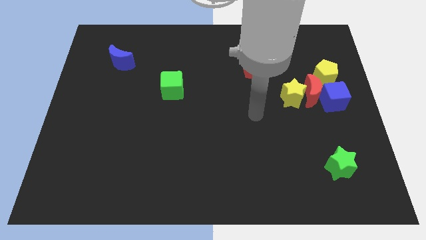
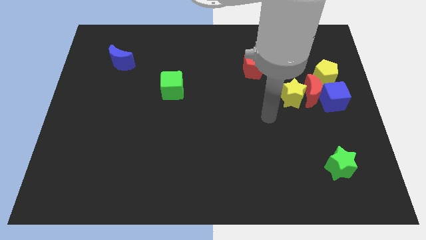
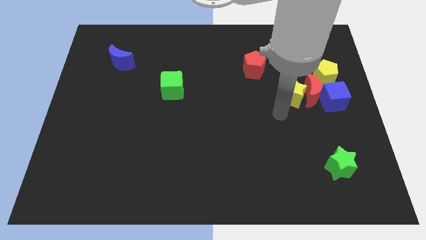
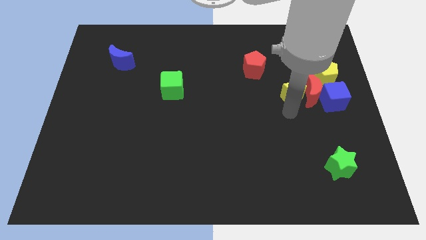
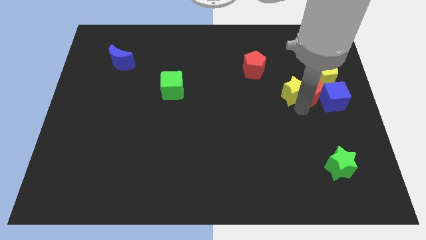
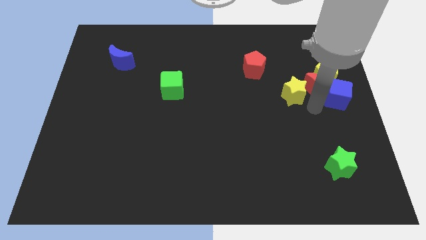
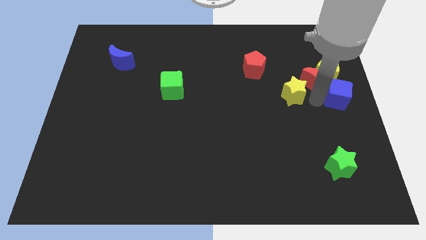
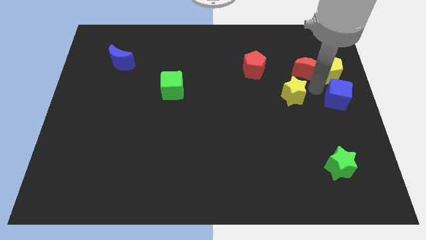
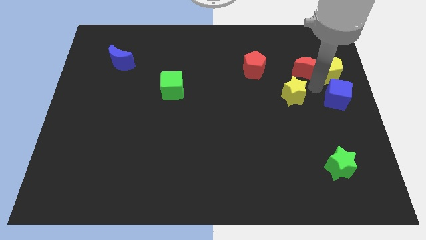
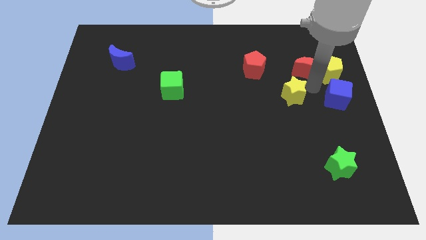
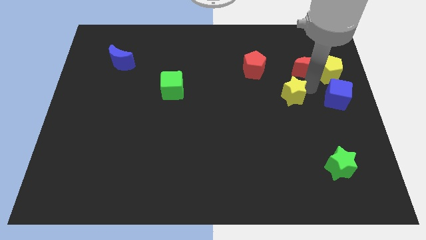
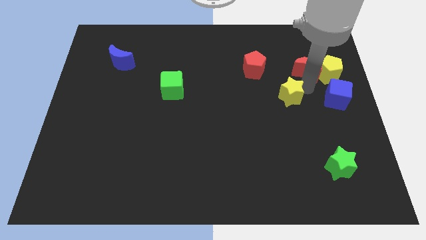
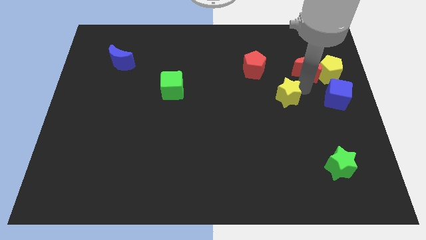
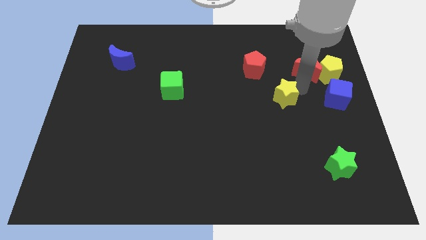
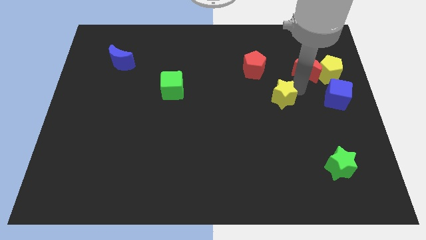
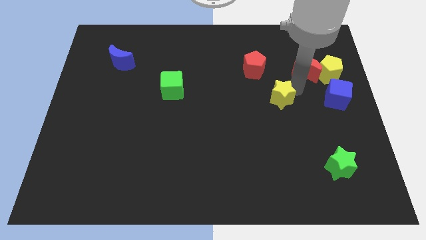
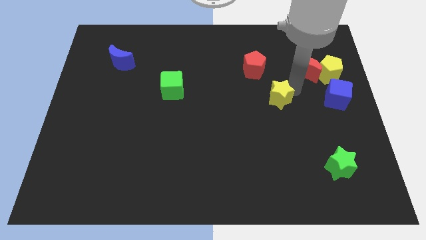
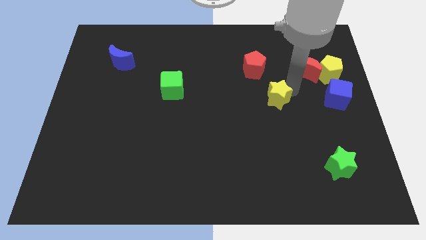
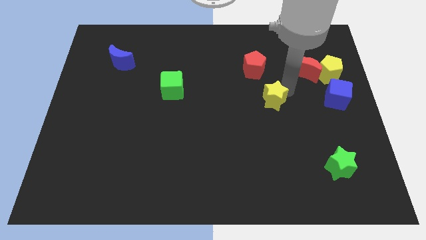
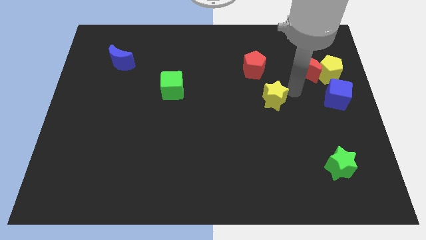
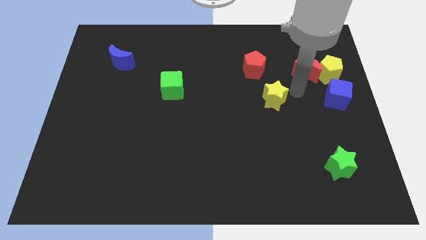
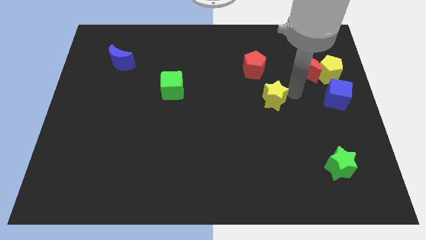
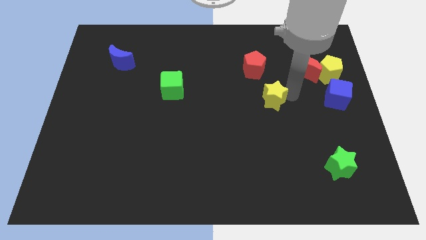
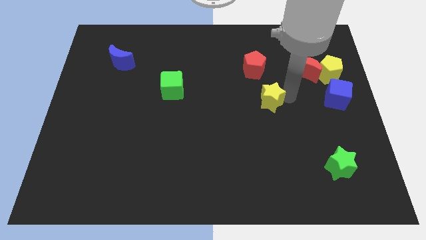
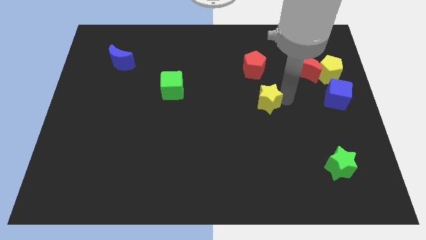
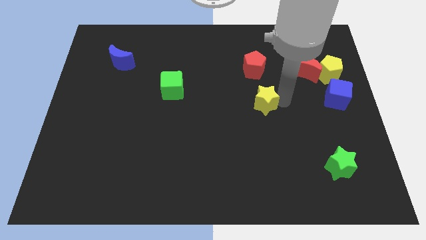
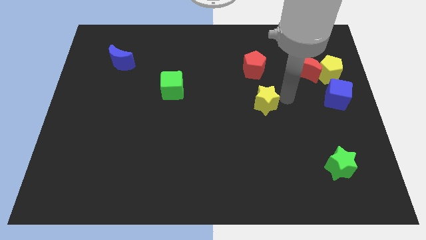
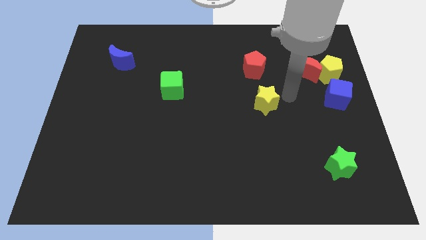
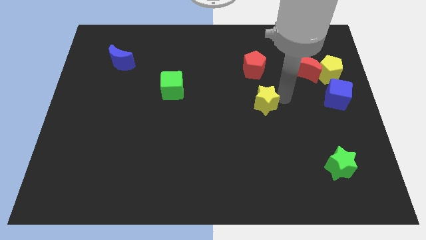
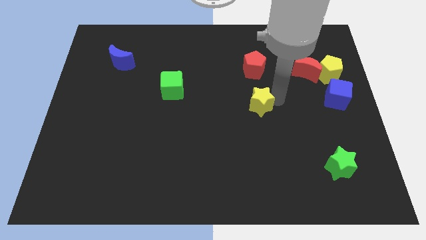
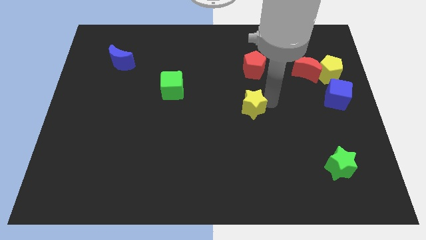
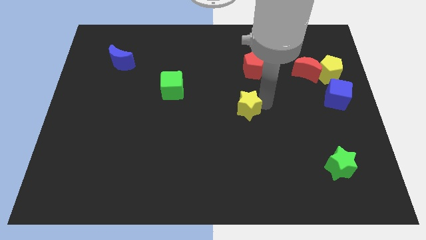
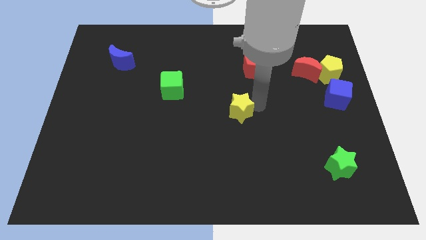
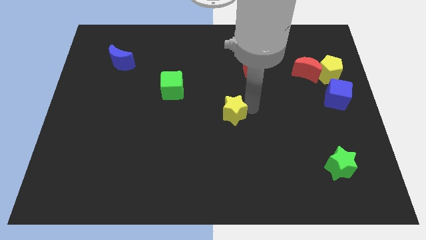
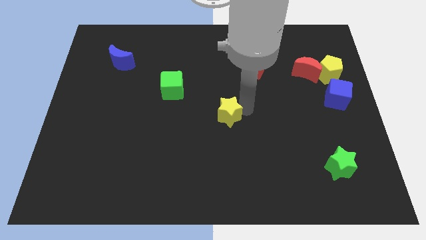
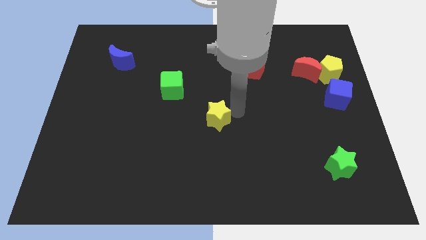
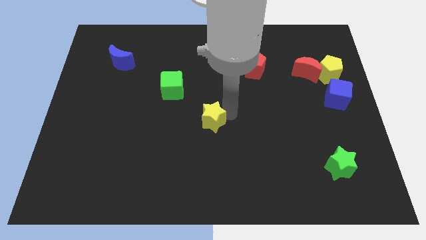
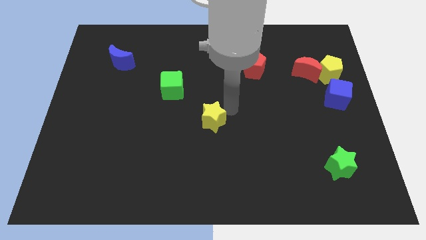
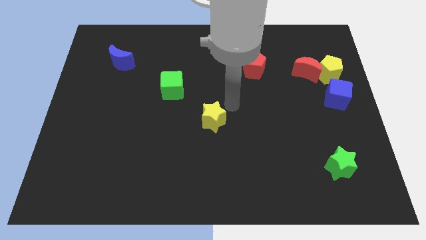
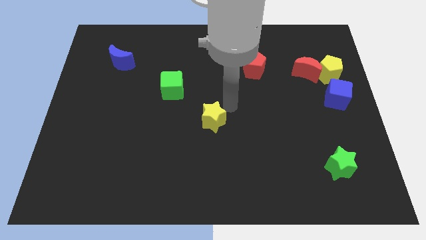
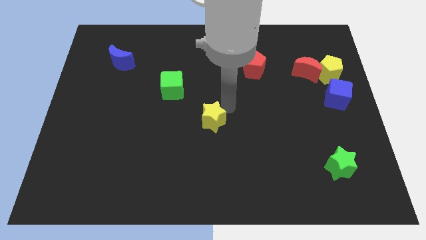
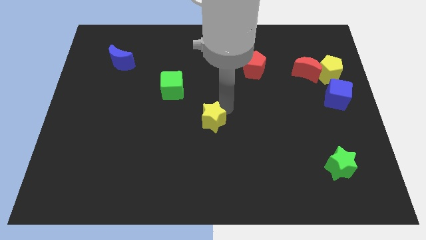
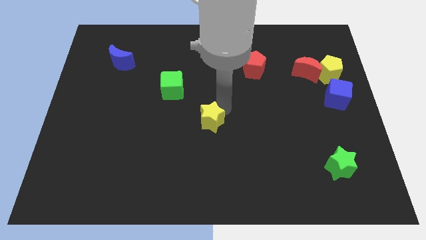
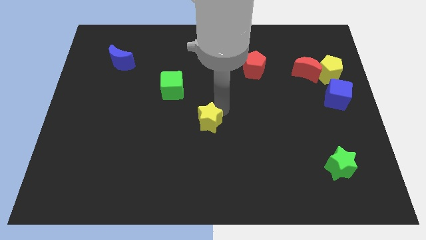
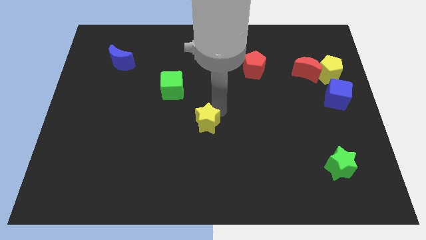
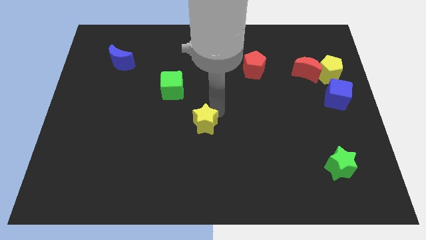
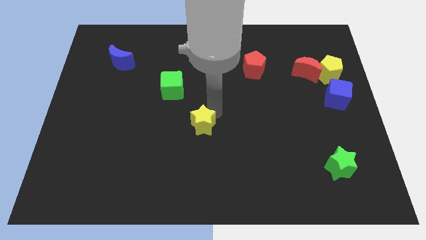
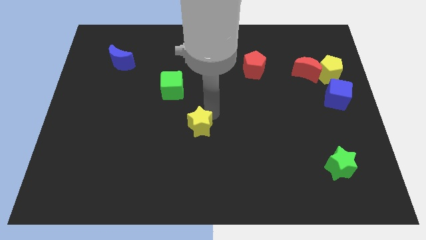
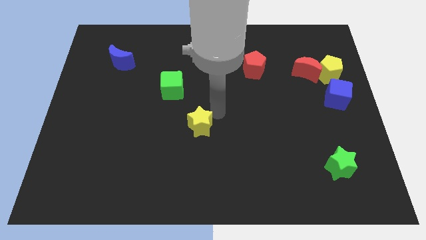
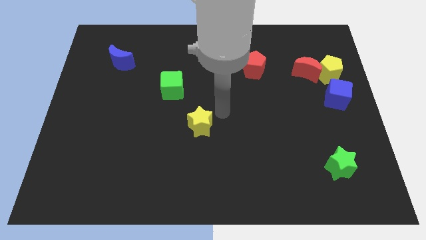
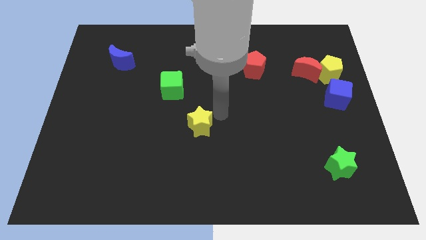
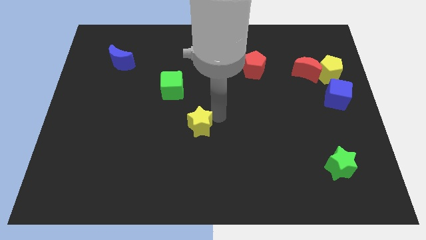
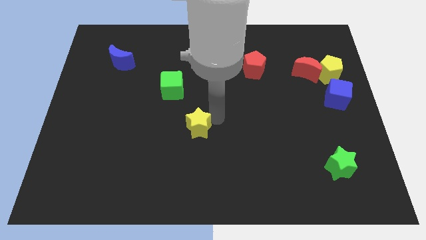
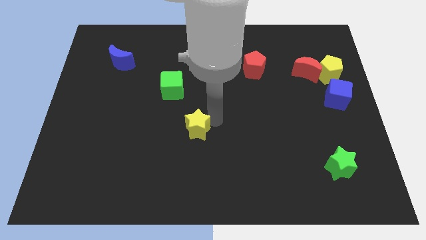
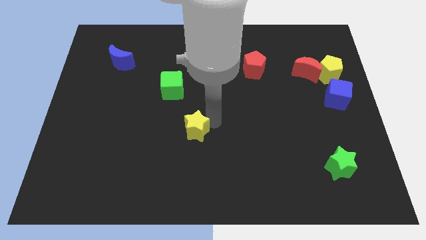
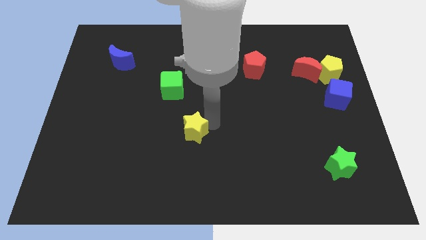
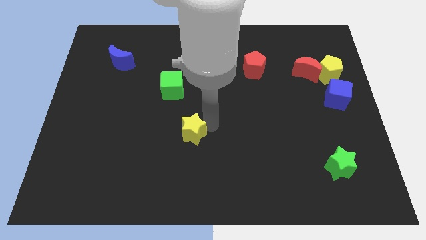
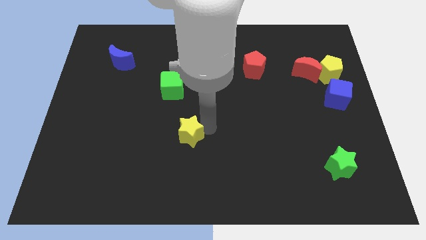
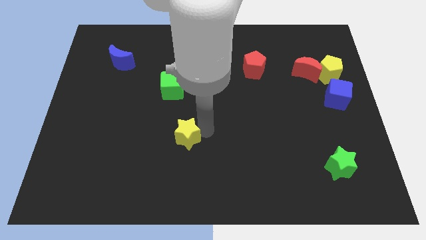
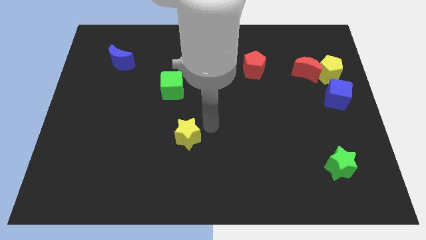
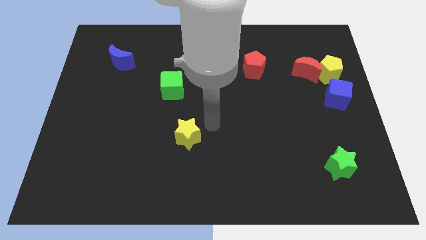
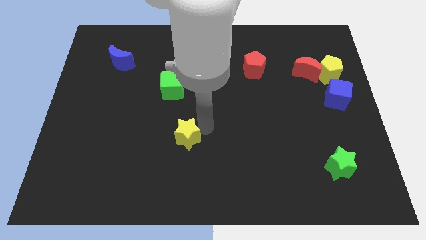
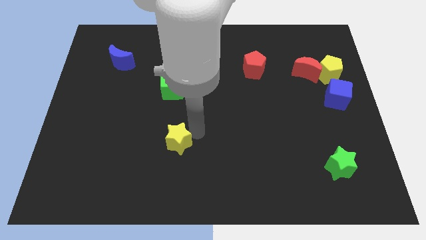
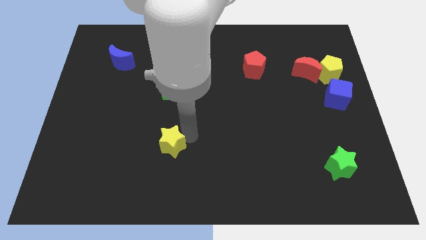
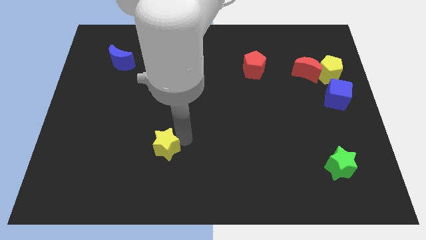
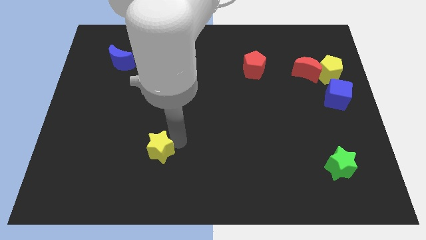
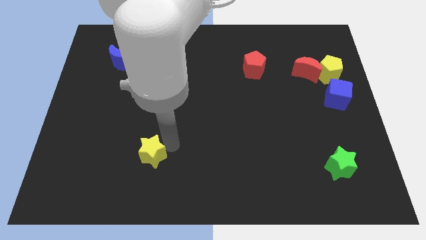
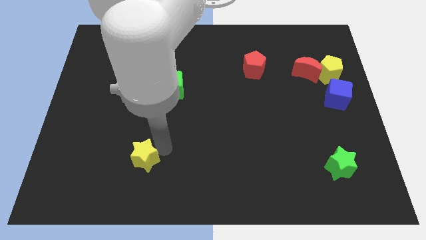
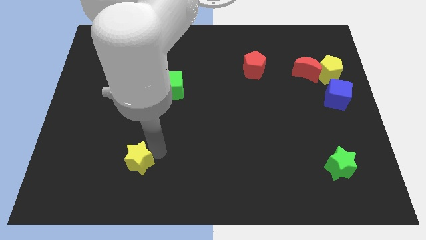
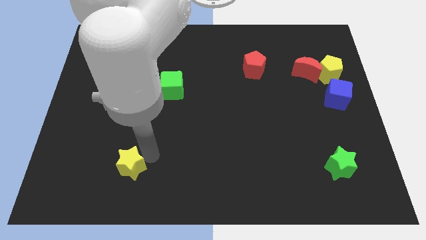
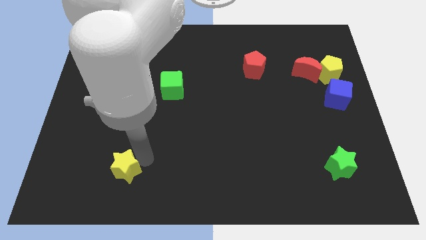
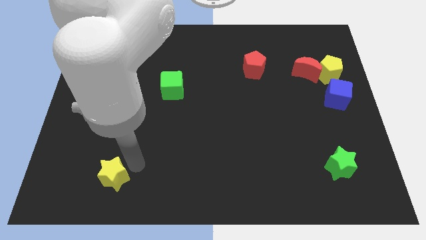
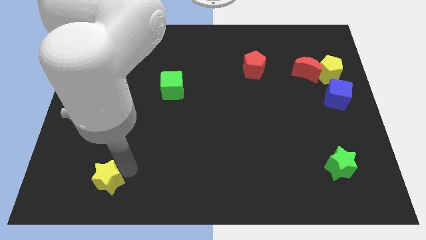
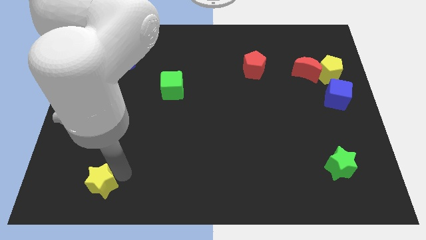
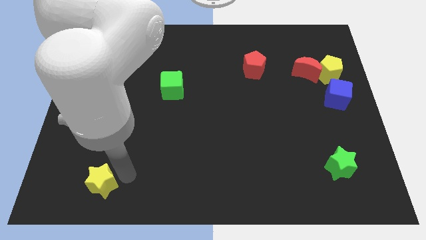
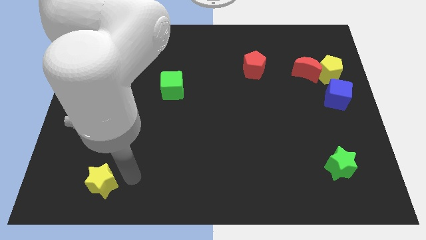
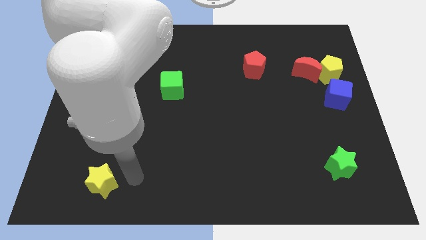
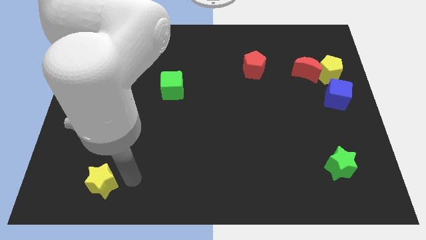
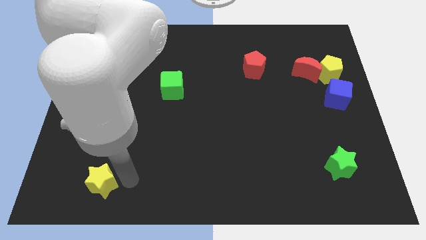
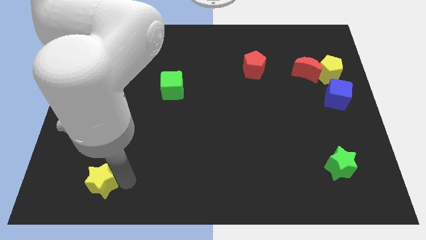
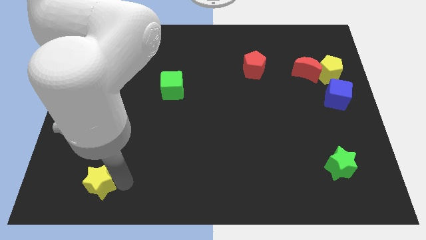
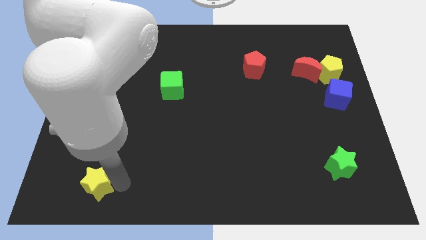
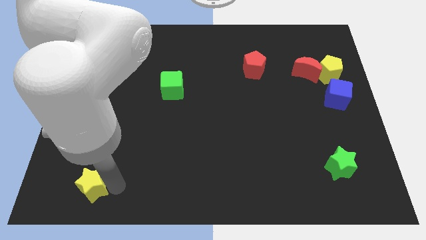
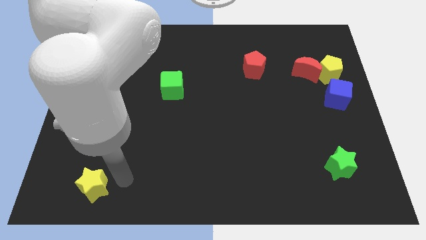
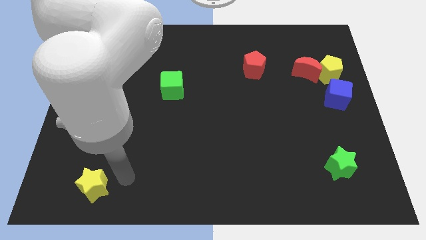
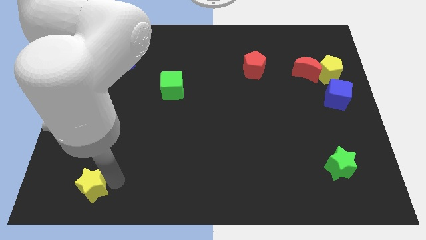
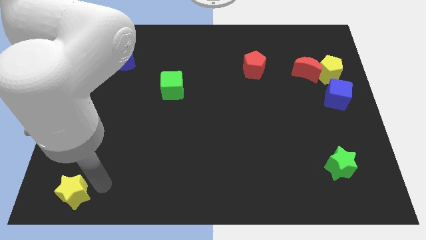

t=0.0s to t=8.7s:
put the yellow star to the bottom left of the board
